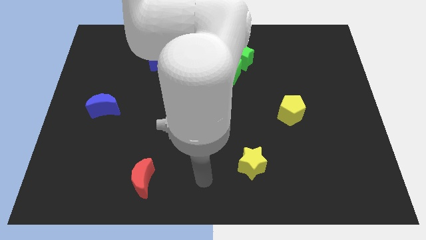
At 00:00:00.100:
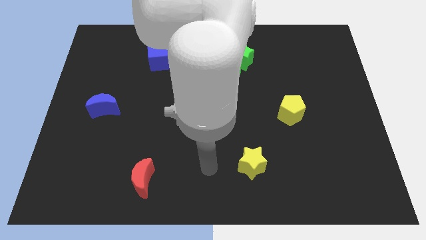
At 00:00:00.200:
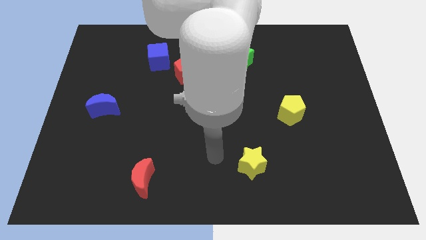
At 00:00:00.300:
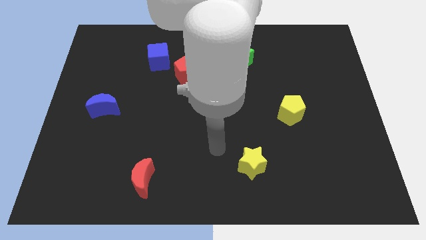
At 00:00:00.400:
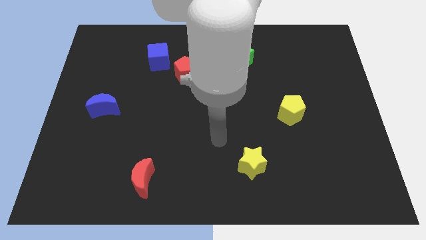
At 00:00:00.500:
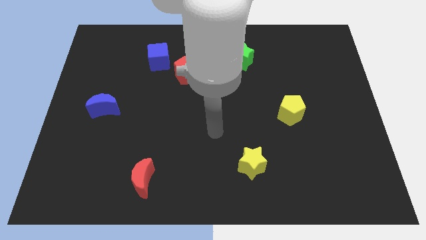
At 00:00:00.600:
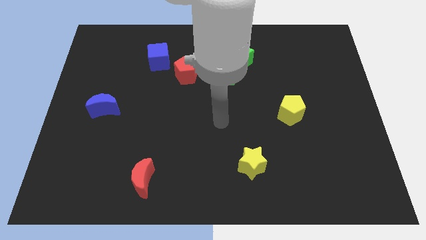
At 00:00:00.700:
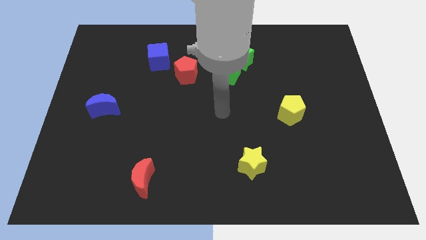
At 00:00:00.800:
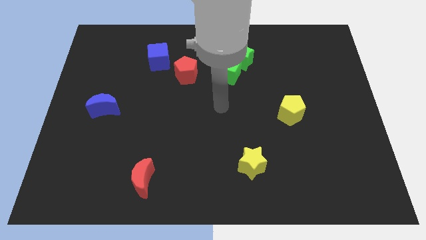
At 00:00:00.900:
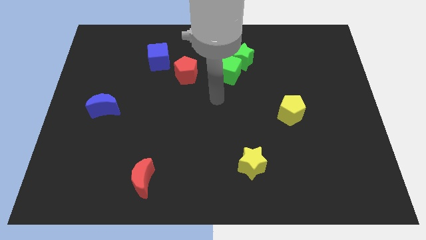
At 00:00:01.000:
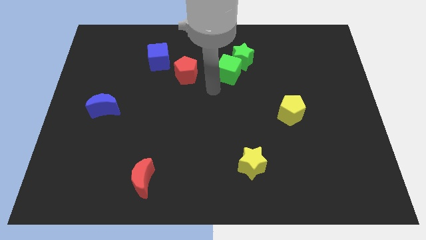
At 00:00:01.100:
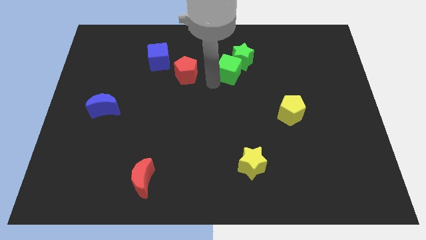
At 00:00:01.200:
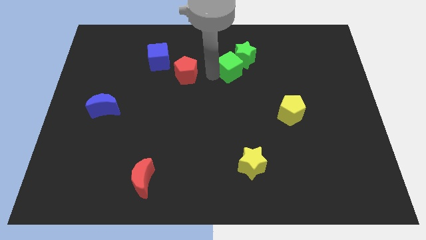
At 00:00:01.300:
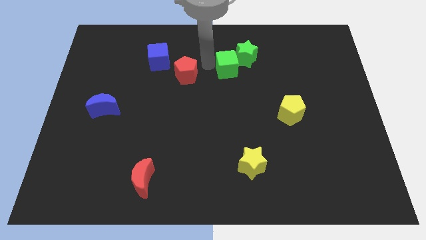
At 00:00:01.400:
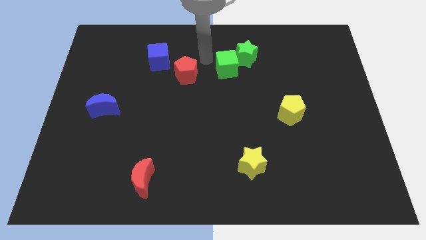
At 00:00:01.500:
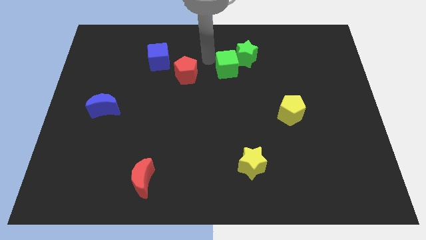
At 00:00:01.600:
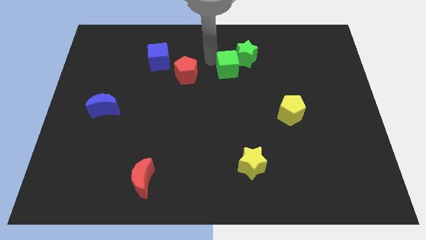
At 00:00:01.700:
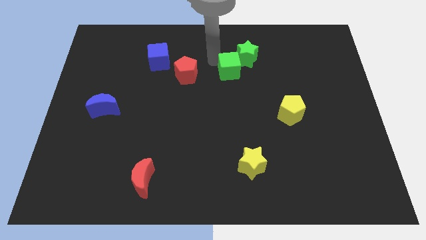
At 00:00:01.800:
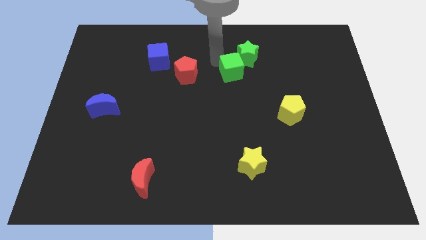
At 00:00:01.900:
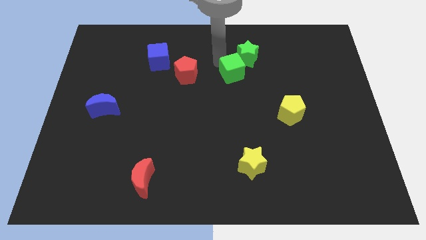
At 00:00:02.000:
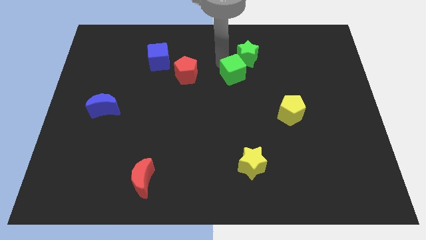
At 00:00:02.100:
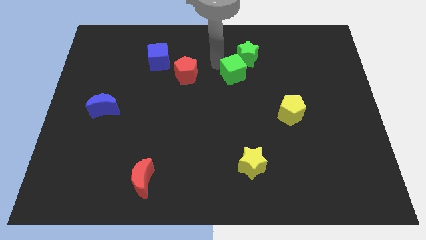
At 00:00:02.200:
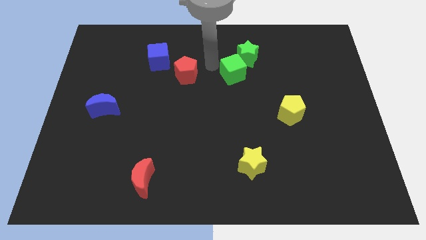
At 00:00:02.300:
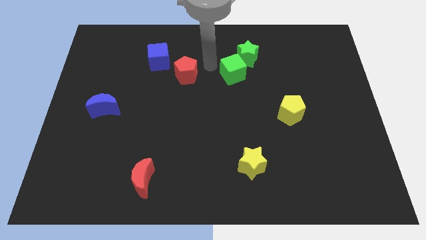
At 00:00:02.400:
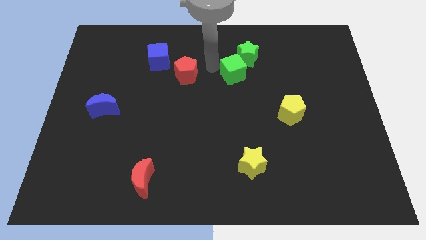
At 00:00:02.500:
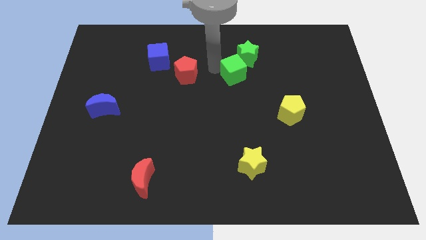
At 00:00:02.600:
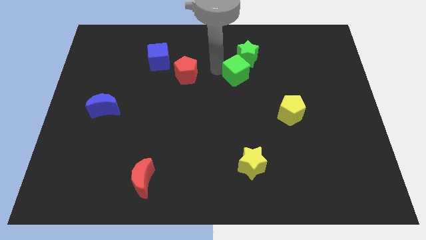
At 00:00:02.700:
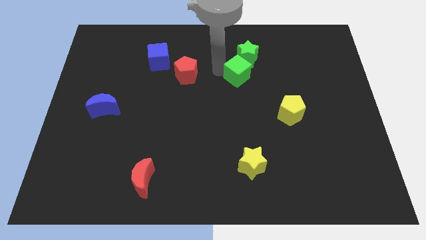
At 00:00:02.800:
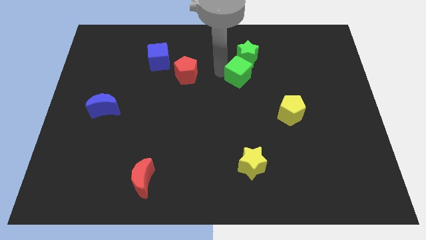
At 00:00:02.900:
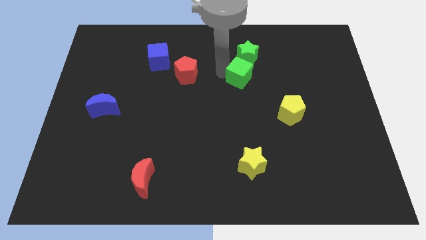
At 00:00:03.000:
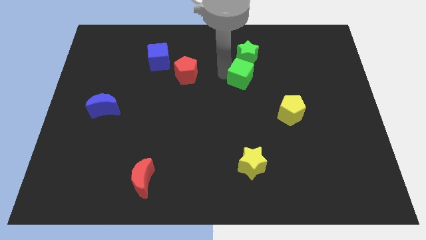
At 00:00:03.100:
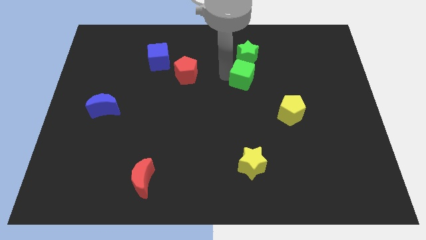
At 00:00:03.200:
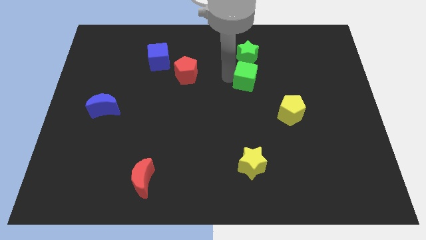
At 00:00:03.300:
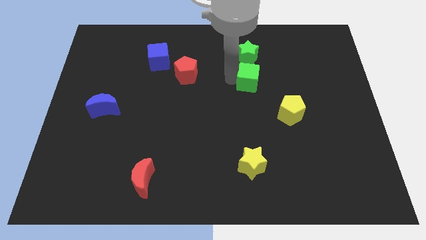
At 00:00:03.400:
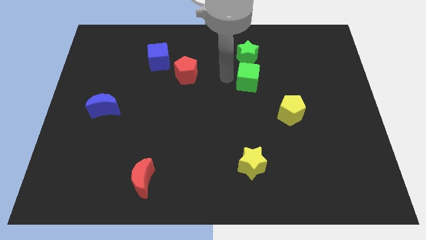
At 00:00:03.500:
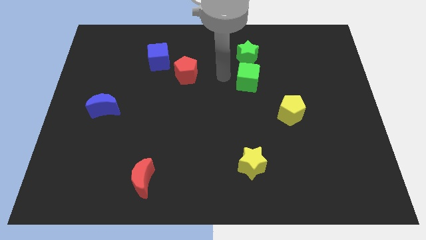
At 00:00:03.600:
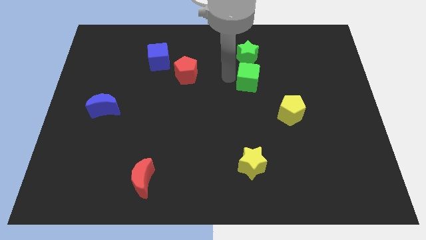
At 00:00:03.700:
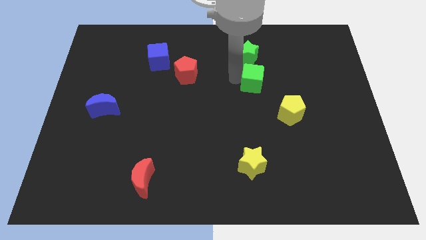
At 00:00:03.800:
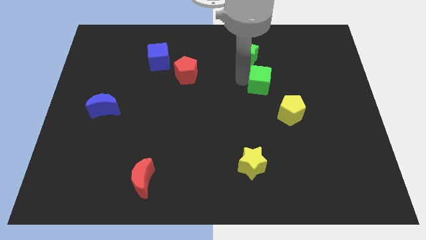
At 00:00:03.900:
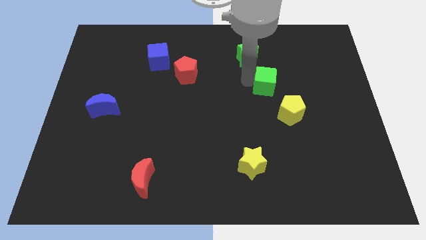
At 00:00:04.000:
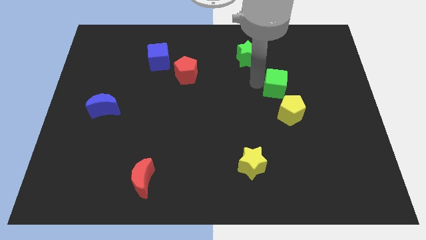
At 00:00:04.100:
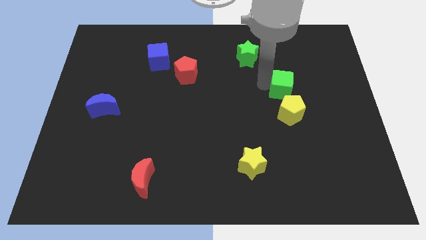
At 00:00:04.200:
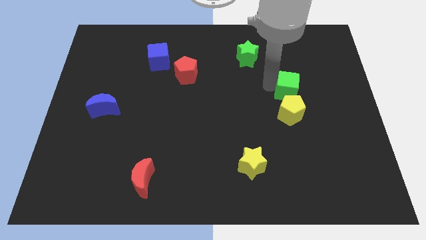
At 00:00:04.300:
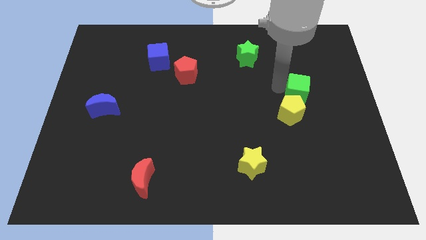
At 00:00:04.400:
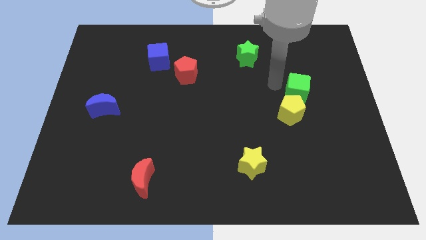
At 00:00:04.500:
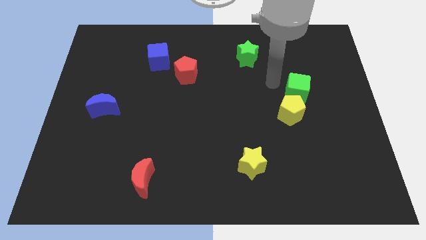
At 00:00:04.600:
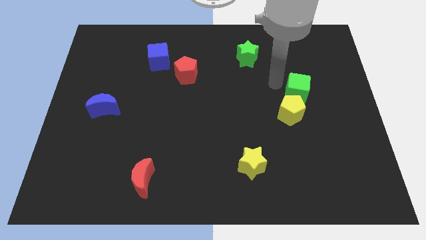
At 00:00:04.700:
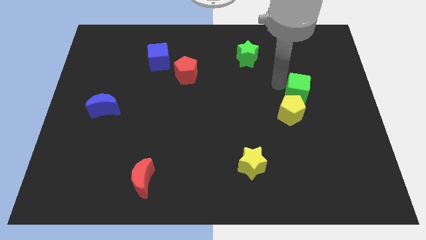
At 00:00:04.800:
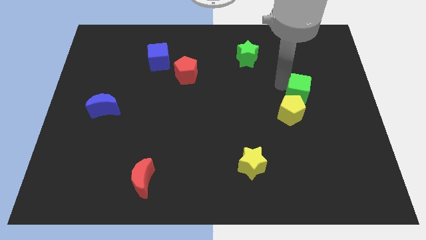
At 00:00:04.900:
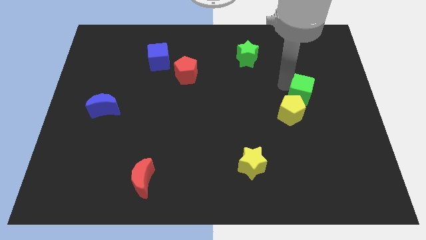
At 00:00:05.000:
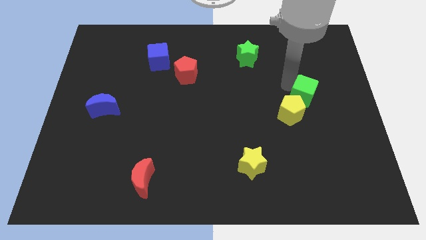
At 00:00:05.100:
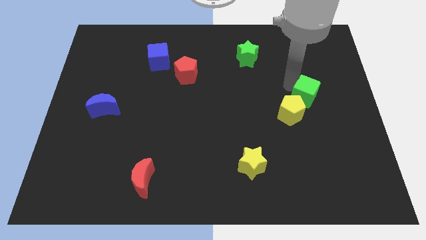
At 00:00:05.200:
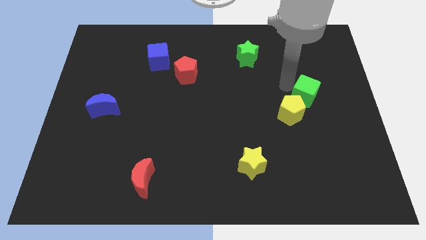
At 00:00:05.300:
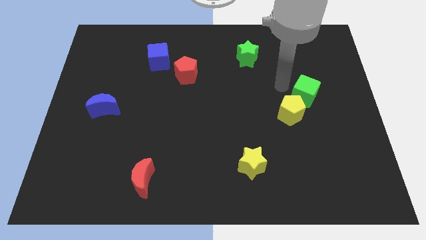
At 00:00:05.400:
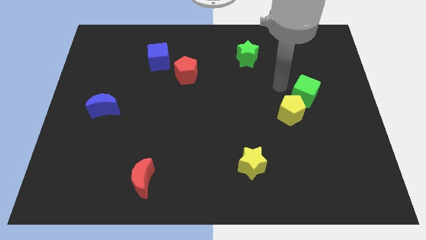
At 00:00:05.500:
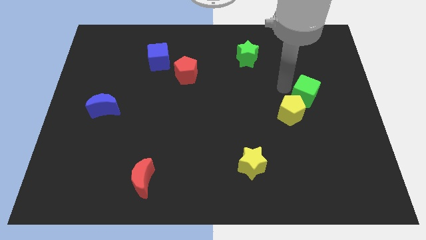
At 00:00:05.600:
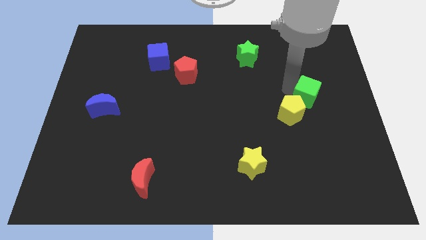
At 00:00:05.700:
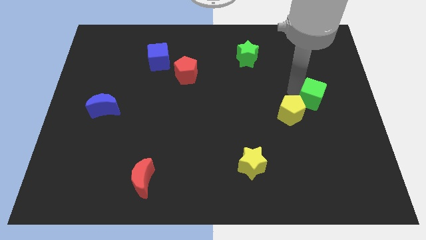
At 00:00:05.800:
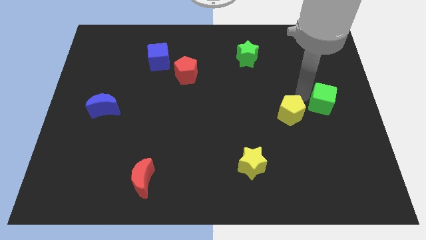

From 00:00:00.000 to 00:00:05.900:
put the green cube to the right side

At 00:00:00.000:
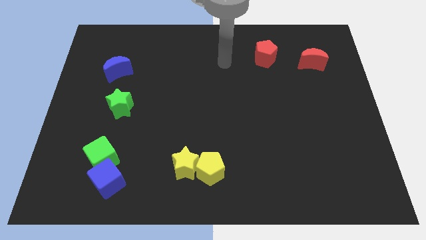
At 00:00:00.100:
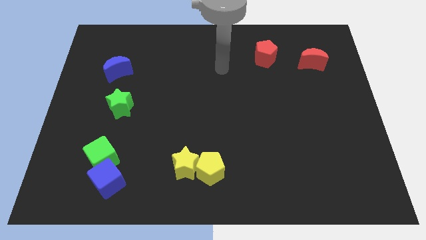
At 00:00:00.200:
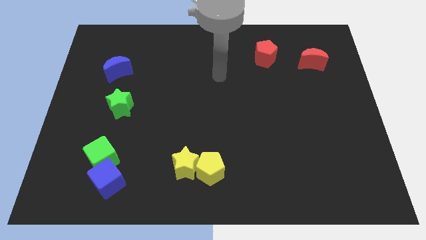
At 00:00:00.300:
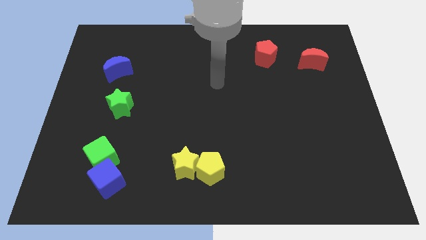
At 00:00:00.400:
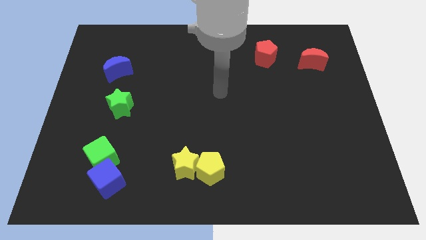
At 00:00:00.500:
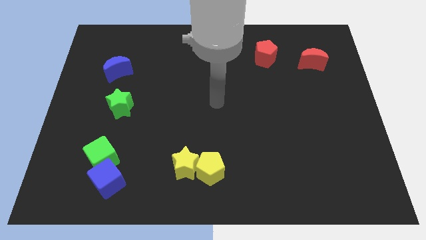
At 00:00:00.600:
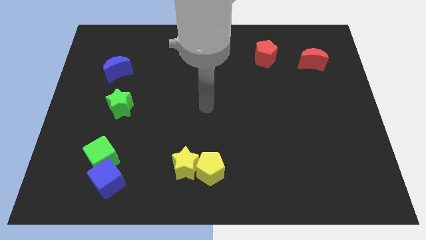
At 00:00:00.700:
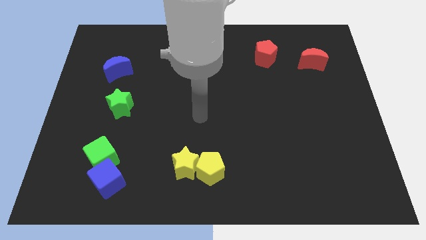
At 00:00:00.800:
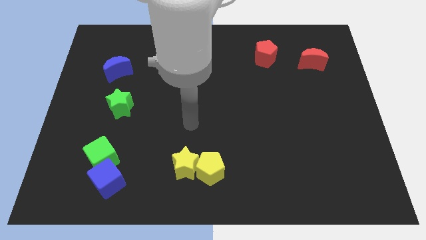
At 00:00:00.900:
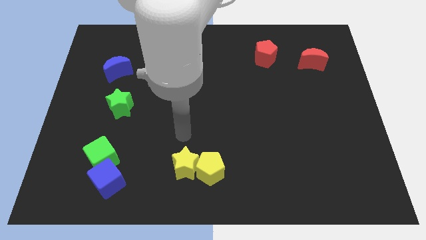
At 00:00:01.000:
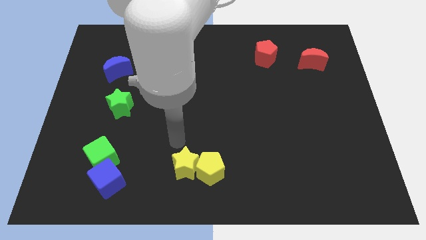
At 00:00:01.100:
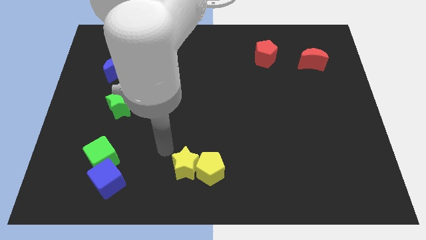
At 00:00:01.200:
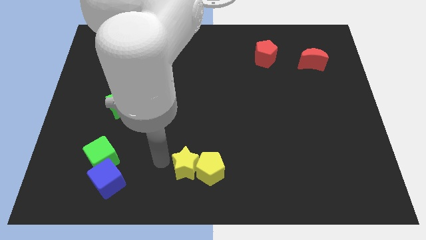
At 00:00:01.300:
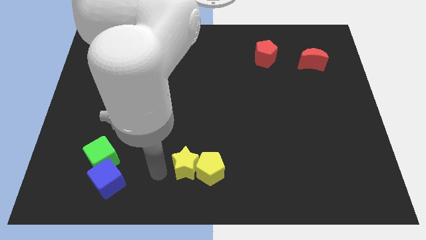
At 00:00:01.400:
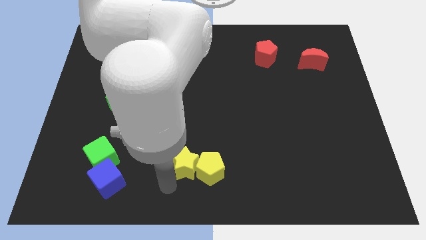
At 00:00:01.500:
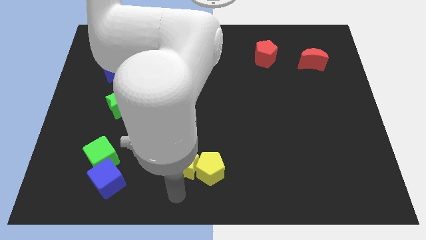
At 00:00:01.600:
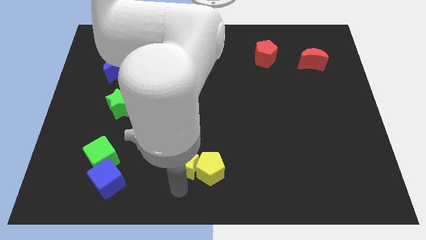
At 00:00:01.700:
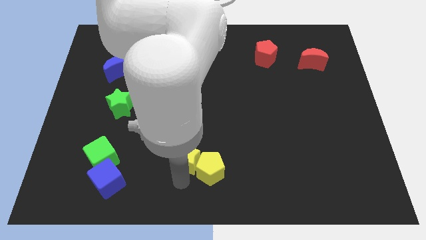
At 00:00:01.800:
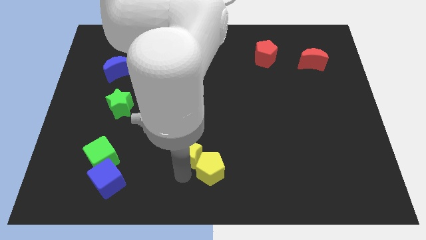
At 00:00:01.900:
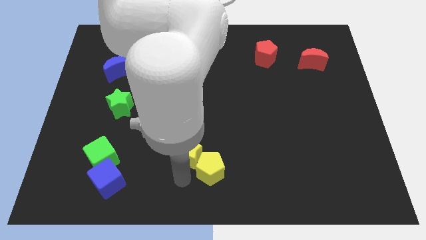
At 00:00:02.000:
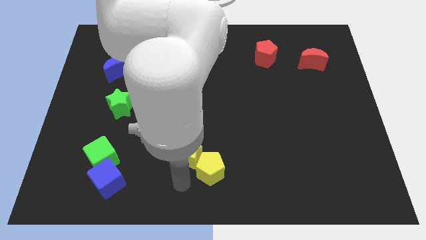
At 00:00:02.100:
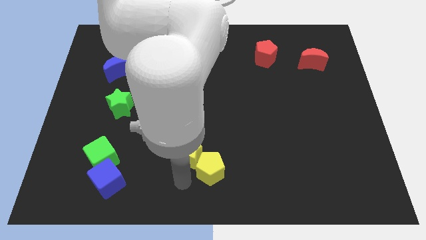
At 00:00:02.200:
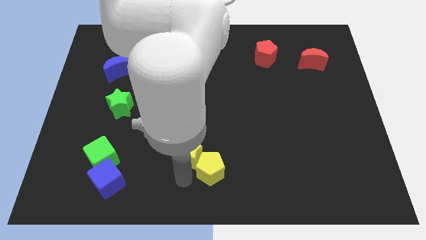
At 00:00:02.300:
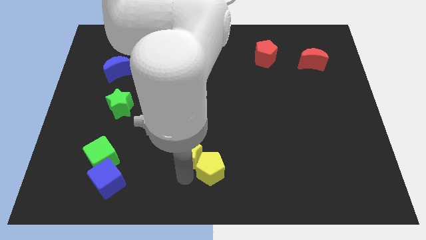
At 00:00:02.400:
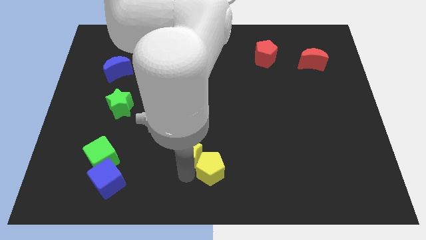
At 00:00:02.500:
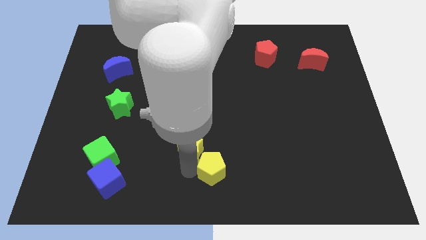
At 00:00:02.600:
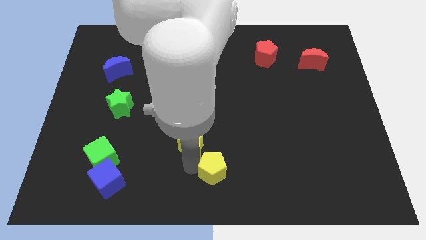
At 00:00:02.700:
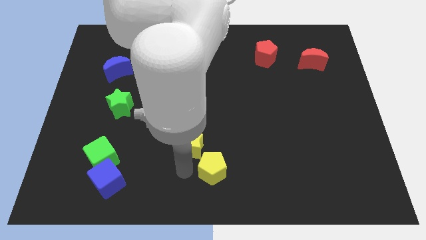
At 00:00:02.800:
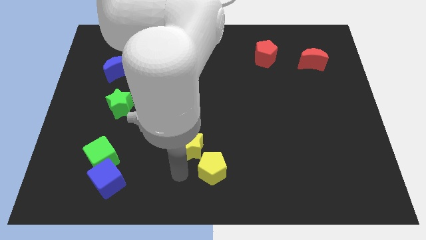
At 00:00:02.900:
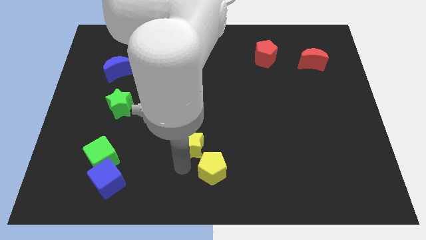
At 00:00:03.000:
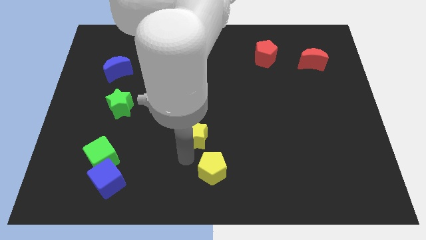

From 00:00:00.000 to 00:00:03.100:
push the yellow star to the middle of the board
